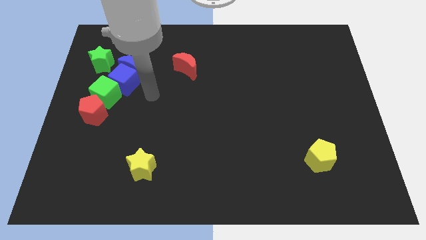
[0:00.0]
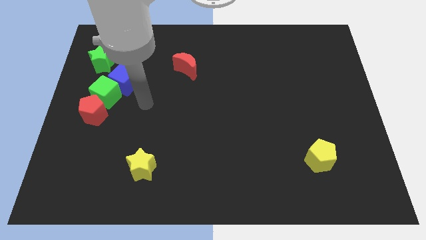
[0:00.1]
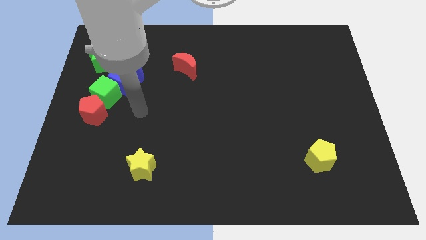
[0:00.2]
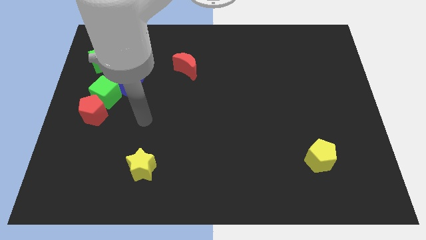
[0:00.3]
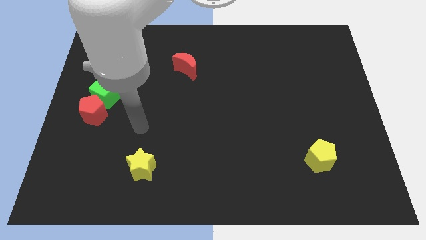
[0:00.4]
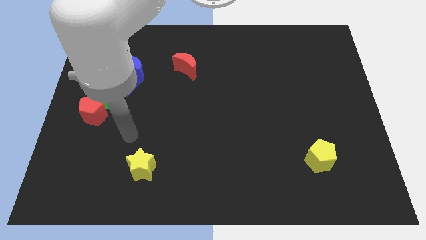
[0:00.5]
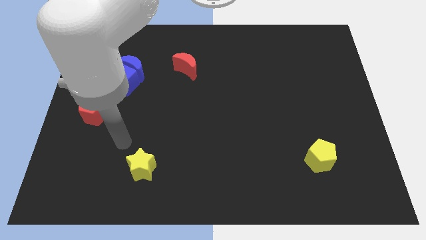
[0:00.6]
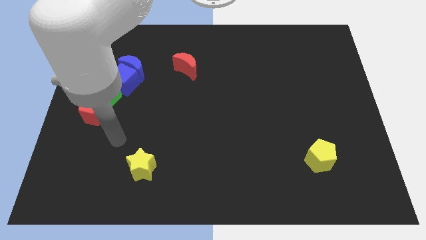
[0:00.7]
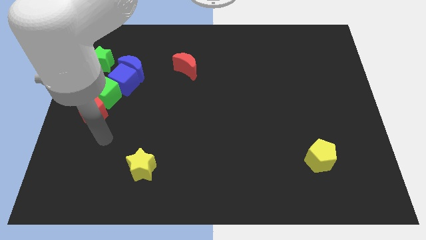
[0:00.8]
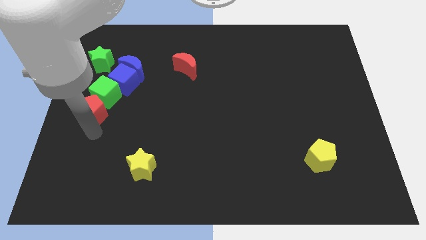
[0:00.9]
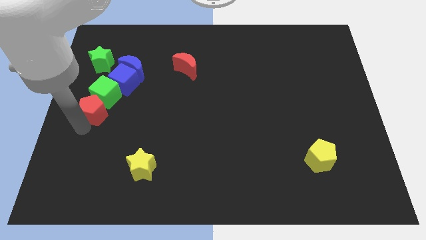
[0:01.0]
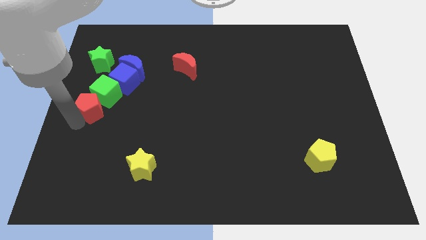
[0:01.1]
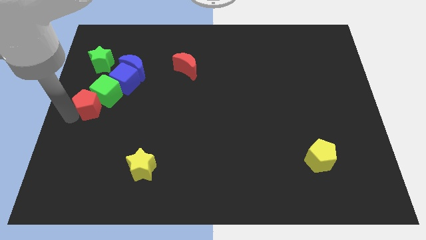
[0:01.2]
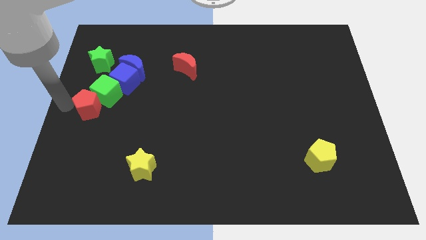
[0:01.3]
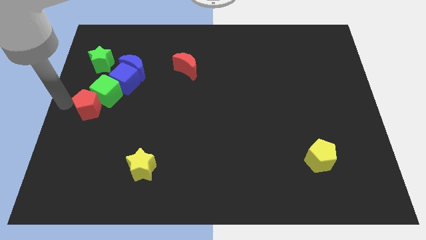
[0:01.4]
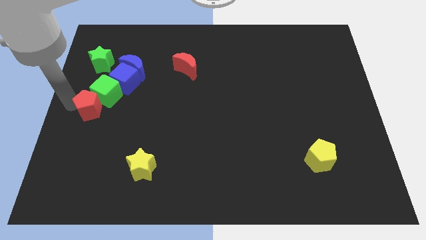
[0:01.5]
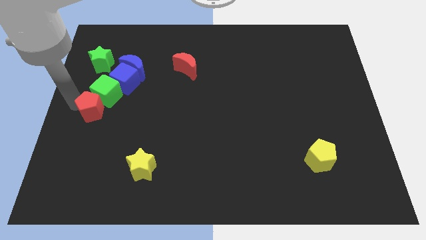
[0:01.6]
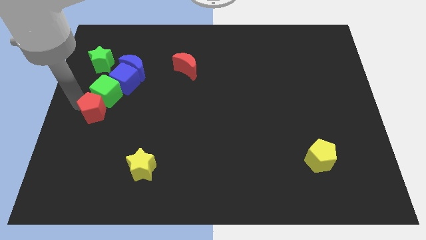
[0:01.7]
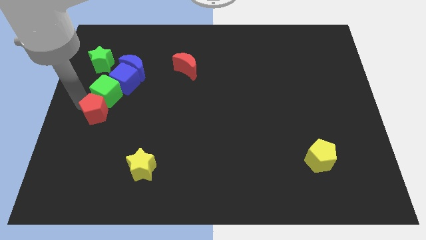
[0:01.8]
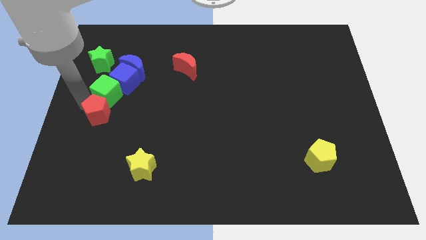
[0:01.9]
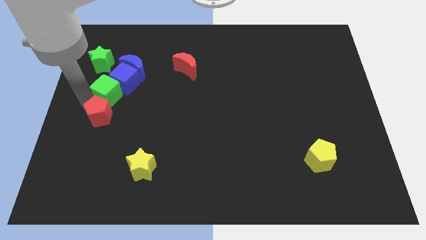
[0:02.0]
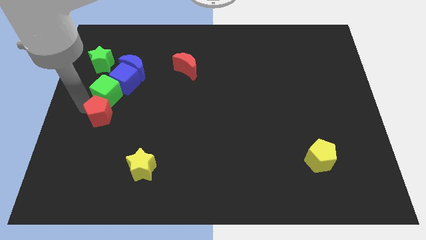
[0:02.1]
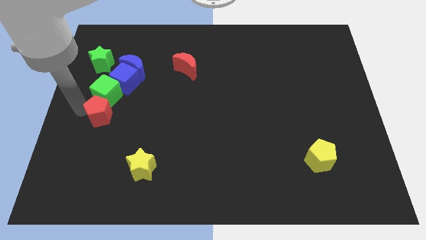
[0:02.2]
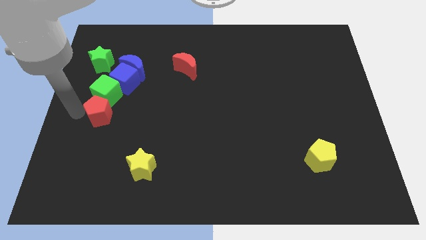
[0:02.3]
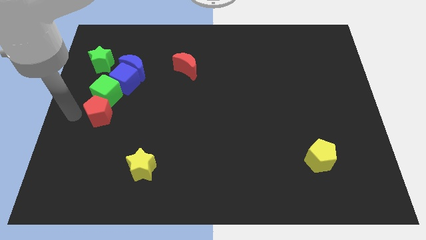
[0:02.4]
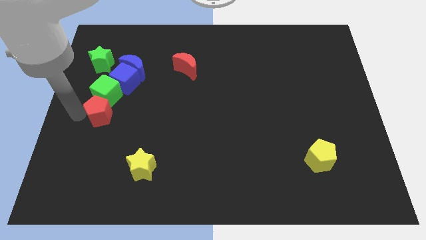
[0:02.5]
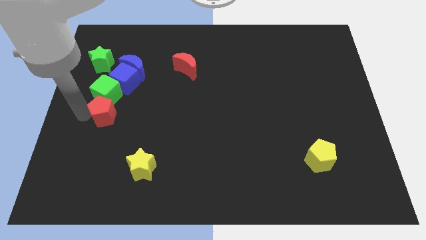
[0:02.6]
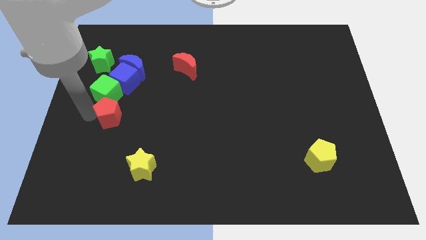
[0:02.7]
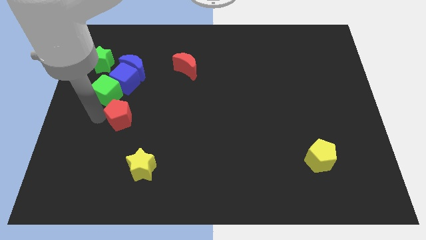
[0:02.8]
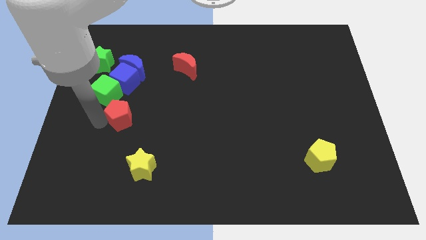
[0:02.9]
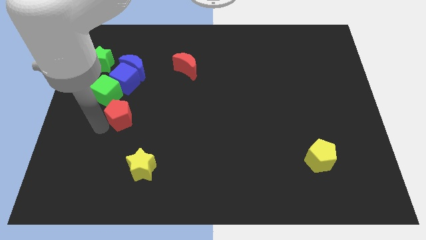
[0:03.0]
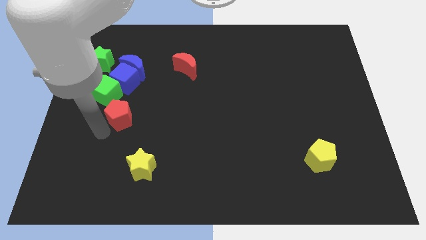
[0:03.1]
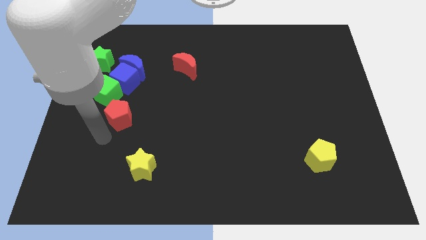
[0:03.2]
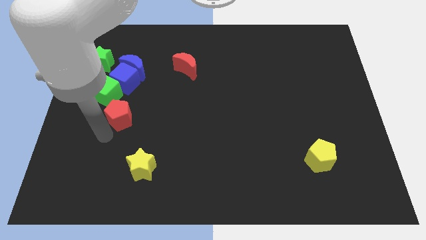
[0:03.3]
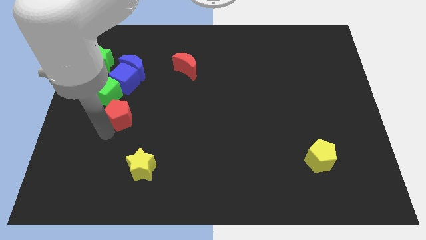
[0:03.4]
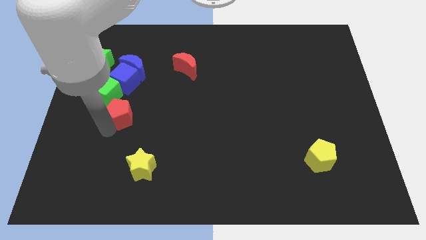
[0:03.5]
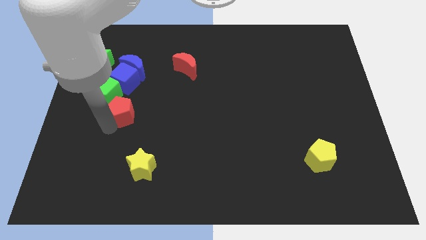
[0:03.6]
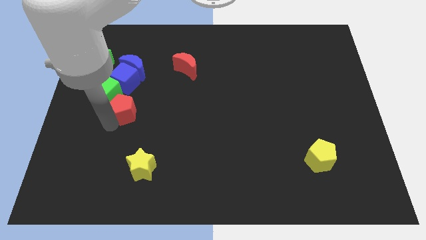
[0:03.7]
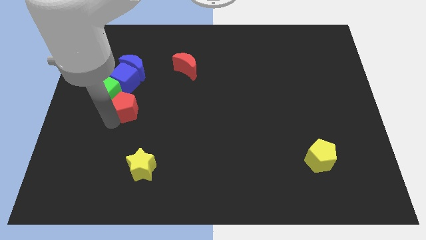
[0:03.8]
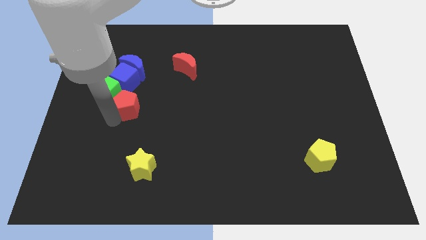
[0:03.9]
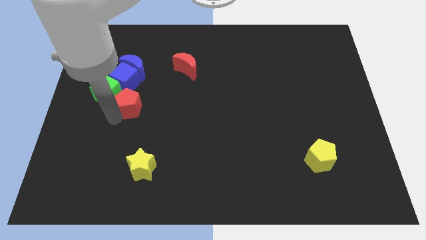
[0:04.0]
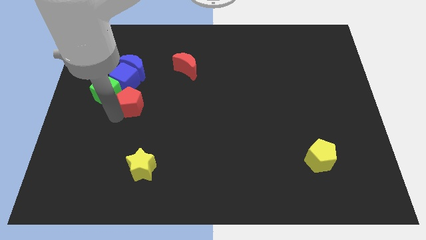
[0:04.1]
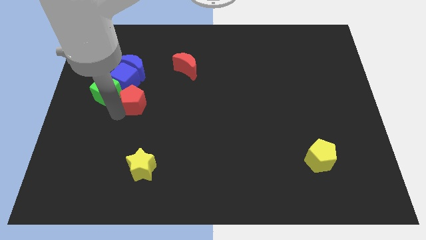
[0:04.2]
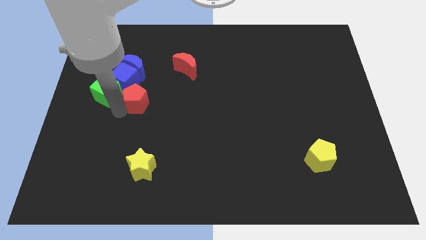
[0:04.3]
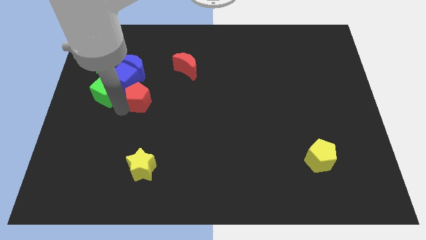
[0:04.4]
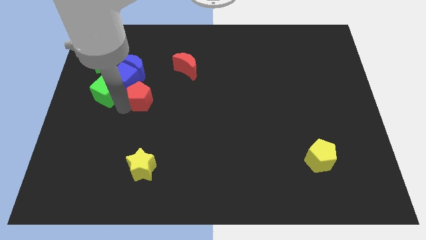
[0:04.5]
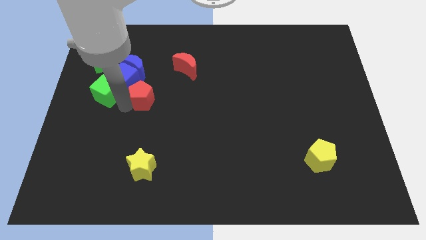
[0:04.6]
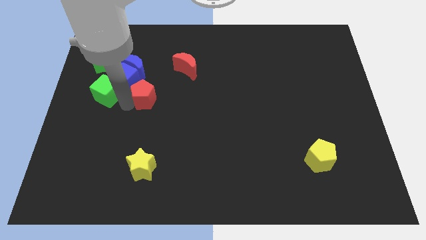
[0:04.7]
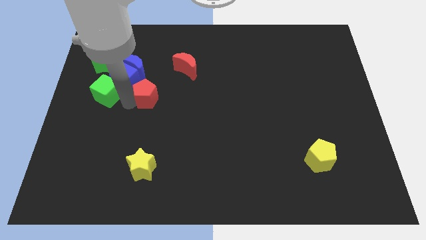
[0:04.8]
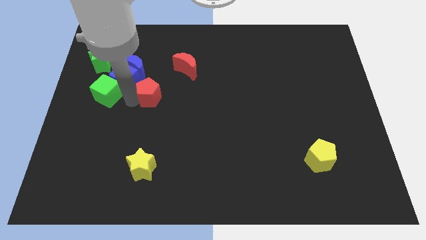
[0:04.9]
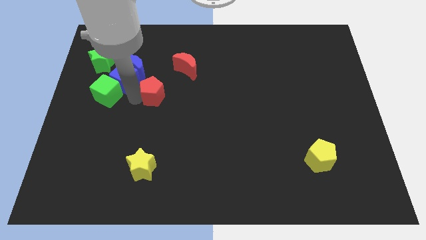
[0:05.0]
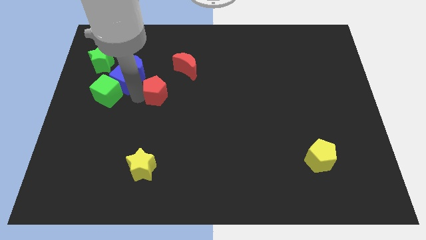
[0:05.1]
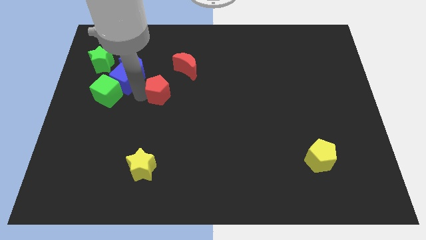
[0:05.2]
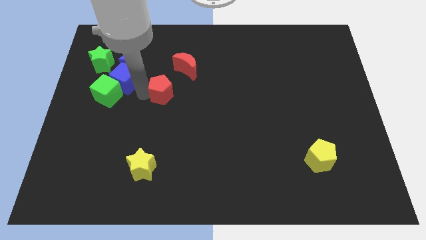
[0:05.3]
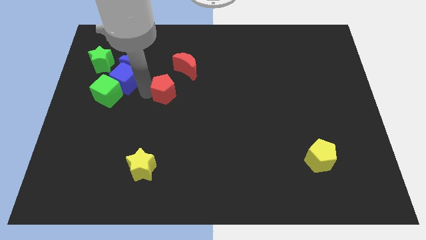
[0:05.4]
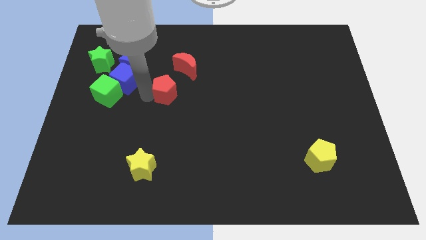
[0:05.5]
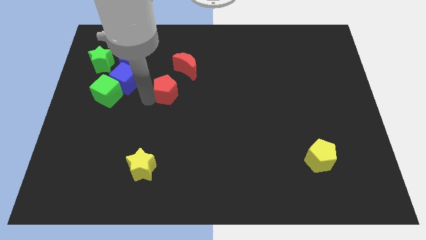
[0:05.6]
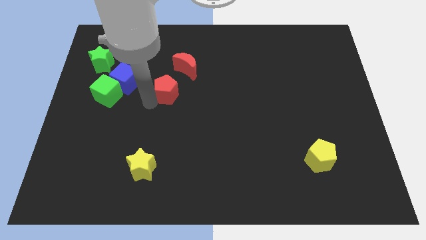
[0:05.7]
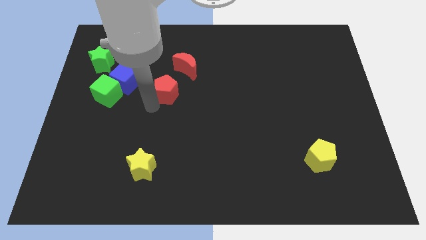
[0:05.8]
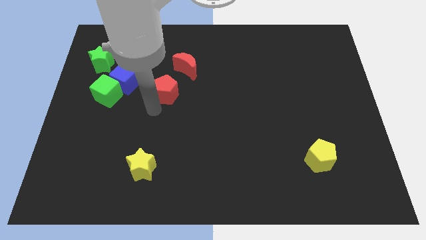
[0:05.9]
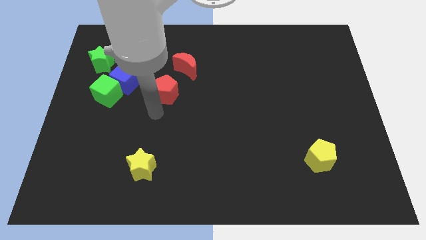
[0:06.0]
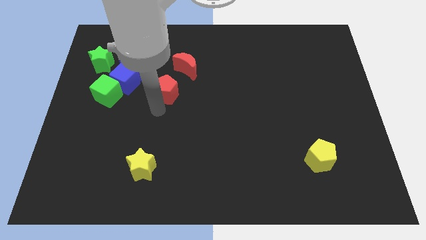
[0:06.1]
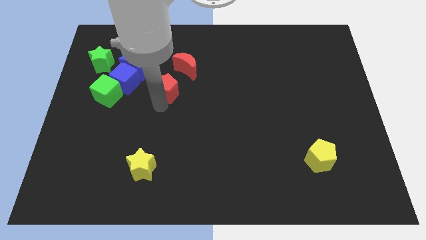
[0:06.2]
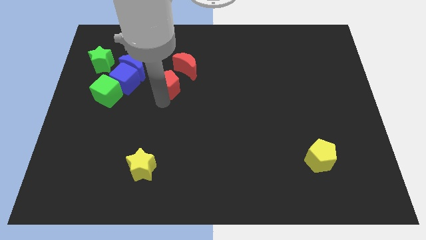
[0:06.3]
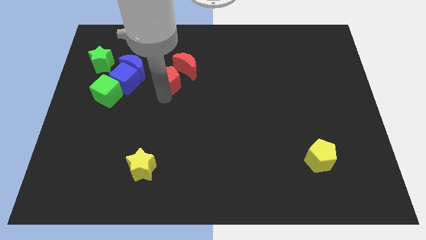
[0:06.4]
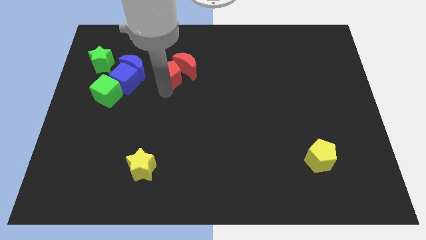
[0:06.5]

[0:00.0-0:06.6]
push the red pentagon next to the red moon
